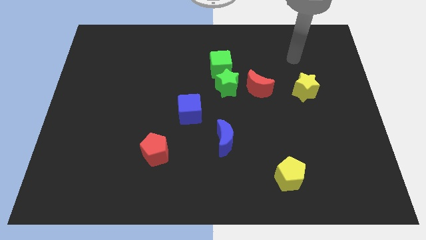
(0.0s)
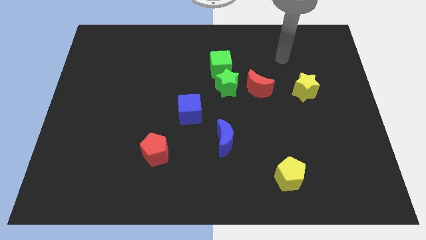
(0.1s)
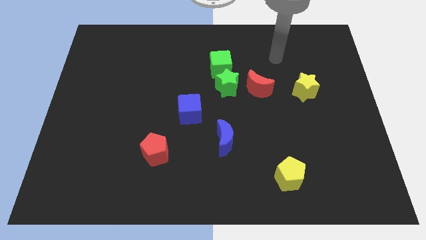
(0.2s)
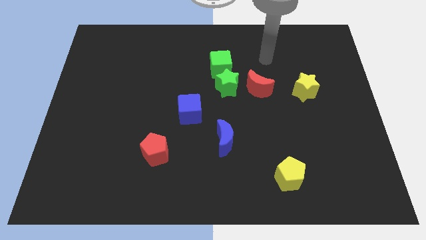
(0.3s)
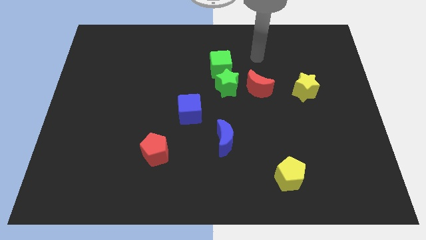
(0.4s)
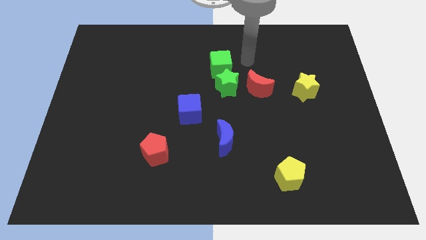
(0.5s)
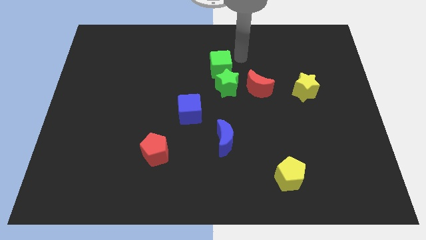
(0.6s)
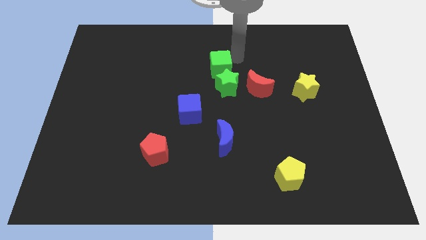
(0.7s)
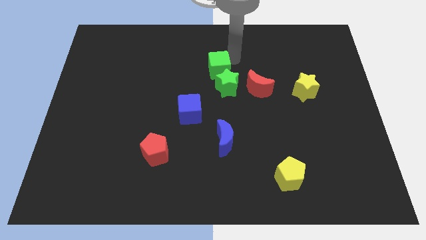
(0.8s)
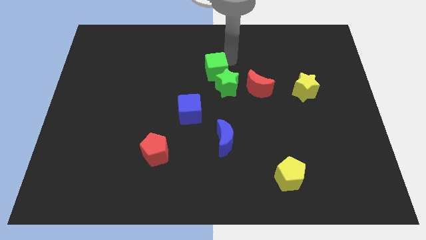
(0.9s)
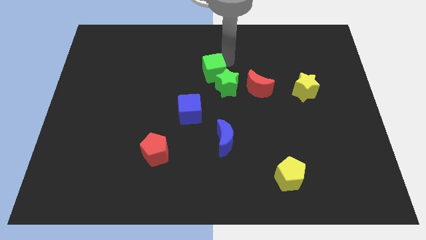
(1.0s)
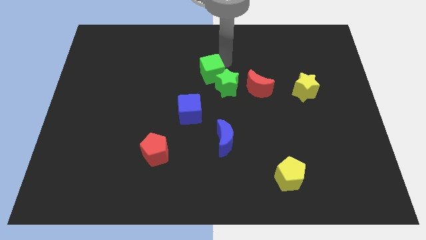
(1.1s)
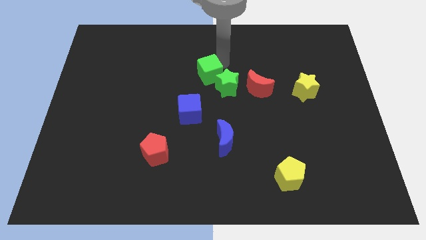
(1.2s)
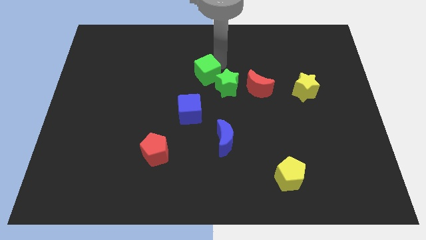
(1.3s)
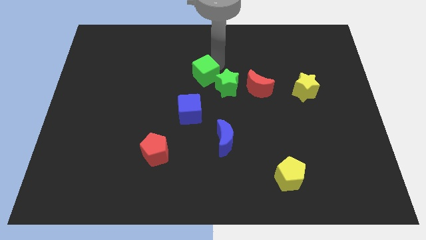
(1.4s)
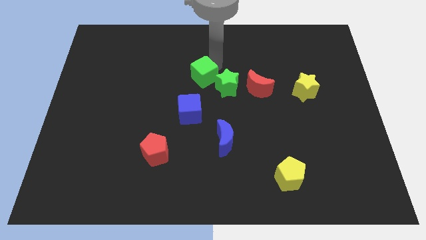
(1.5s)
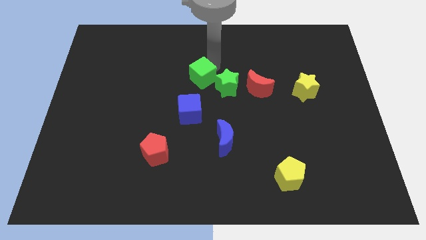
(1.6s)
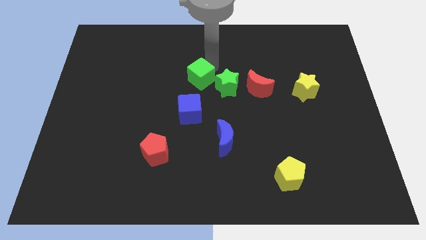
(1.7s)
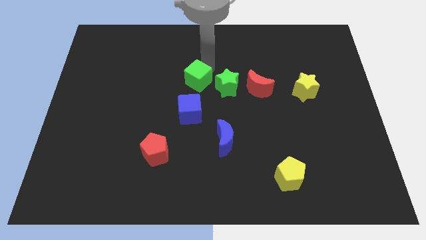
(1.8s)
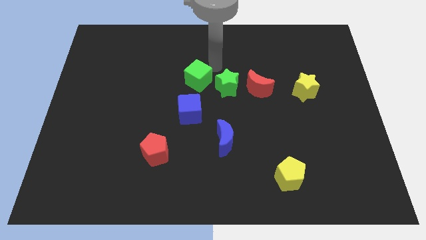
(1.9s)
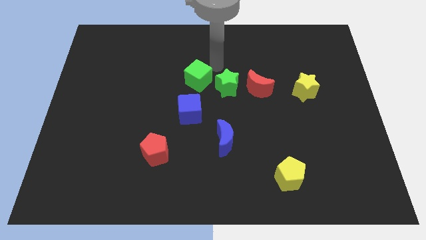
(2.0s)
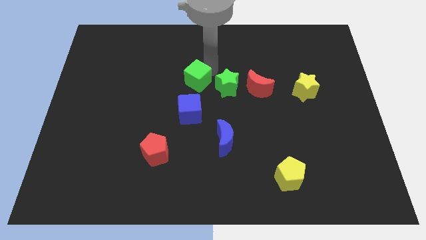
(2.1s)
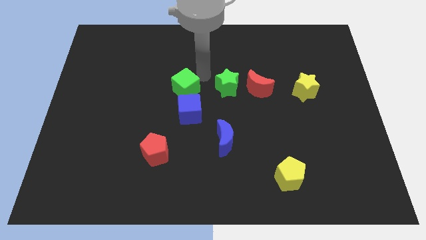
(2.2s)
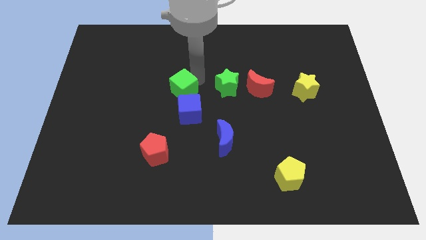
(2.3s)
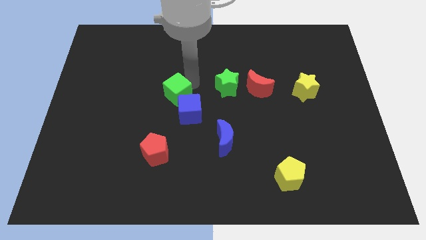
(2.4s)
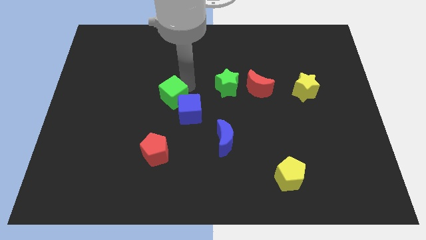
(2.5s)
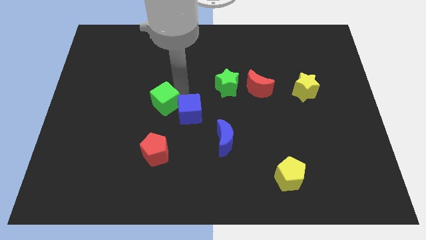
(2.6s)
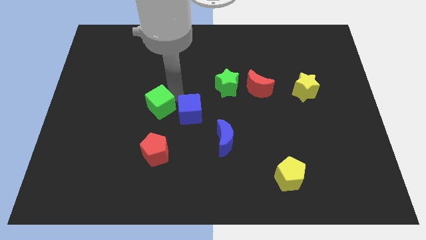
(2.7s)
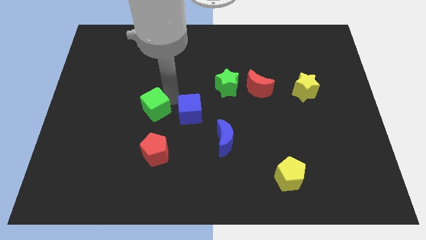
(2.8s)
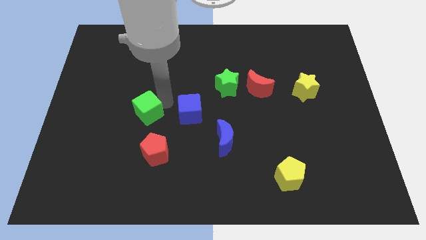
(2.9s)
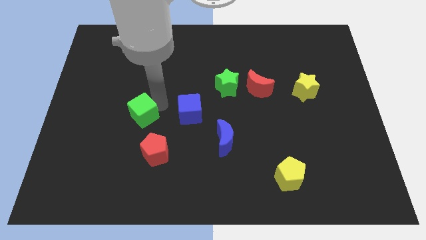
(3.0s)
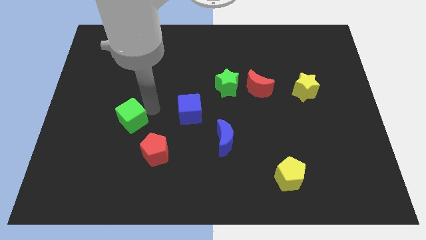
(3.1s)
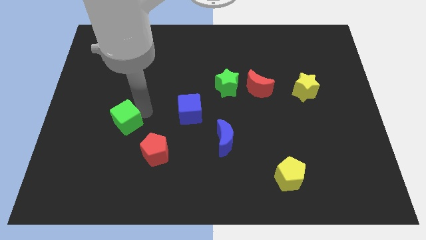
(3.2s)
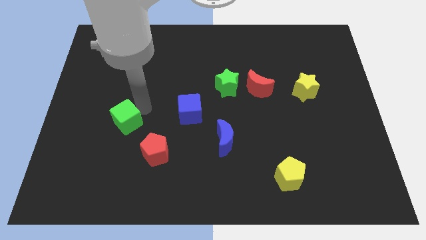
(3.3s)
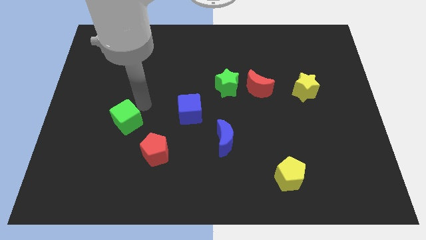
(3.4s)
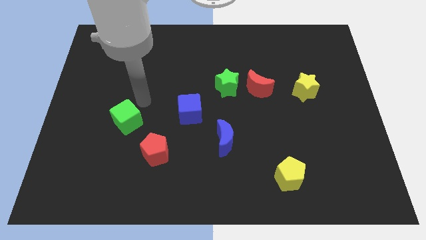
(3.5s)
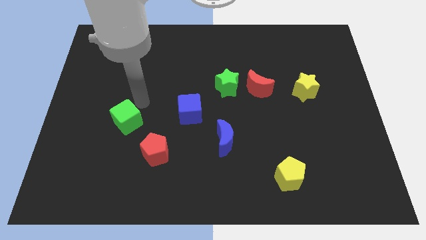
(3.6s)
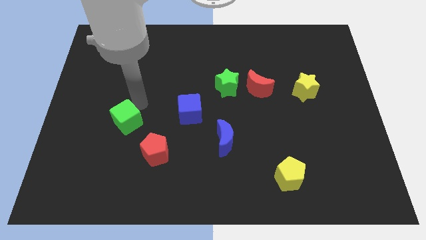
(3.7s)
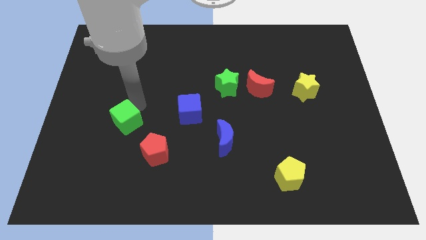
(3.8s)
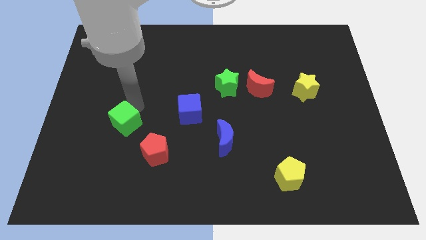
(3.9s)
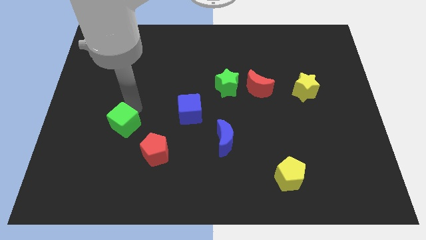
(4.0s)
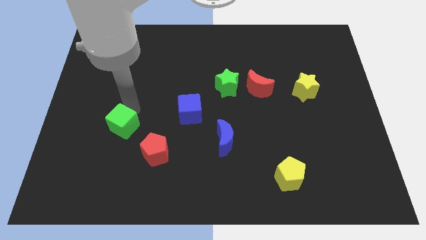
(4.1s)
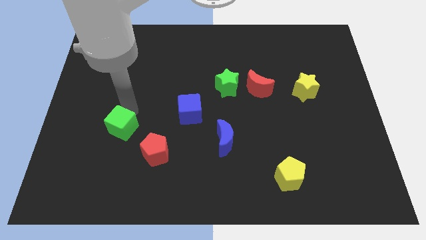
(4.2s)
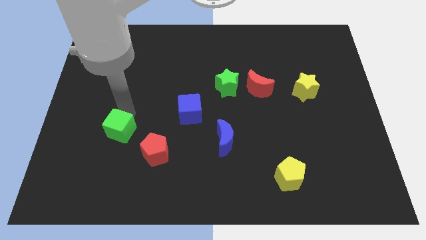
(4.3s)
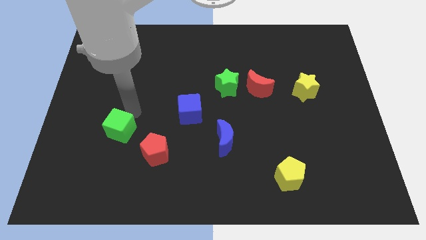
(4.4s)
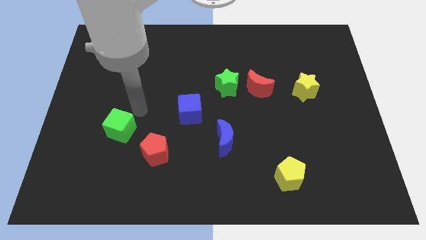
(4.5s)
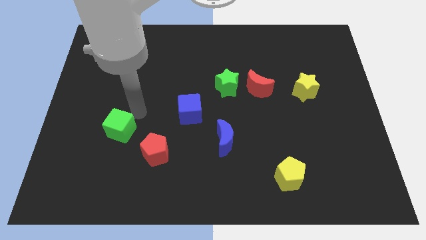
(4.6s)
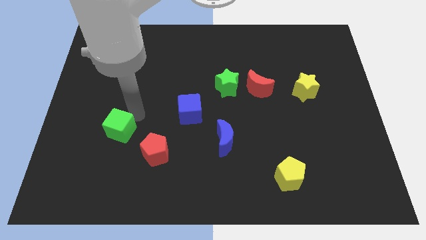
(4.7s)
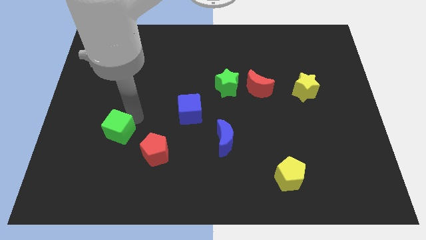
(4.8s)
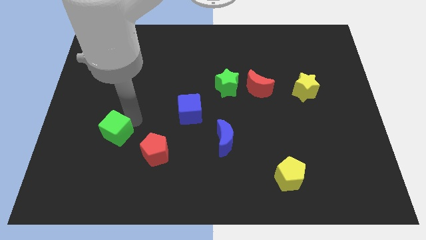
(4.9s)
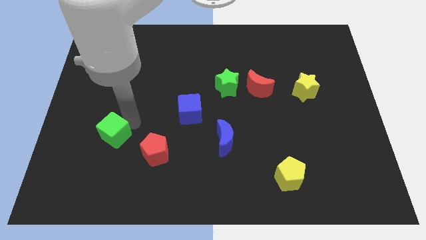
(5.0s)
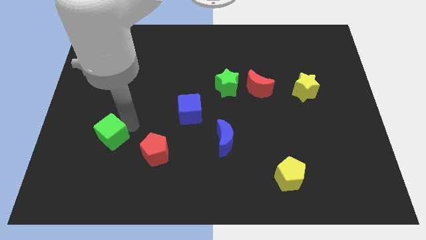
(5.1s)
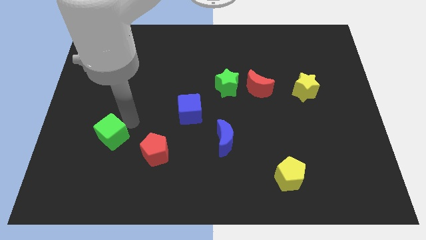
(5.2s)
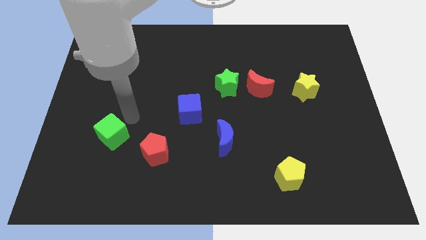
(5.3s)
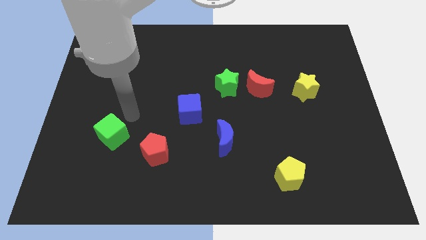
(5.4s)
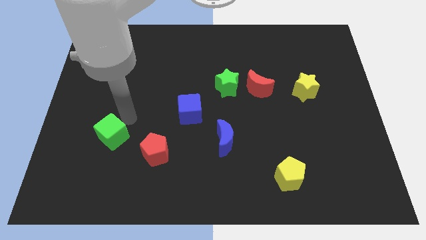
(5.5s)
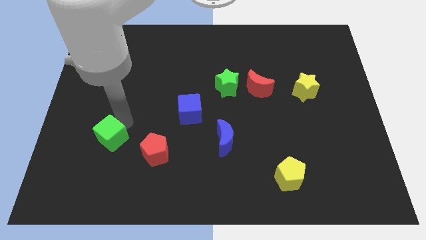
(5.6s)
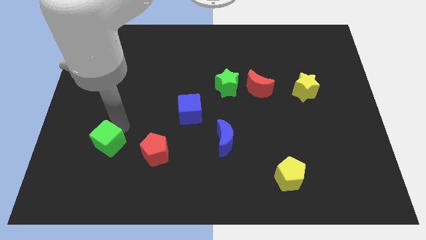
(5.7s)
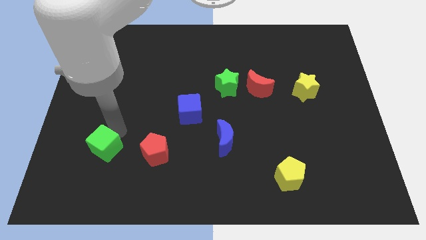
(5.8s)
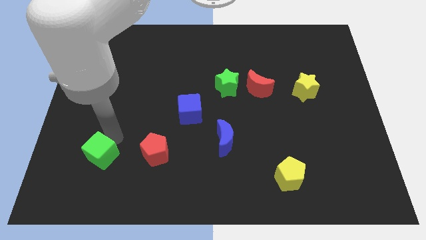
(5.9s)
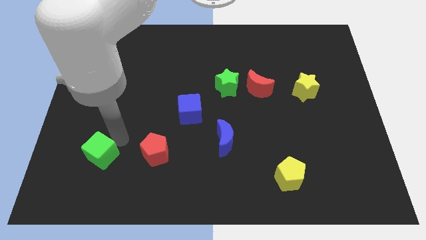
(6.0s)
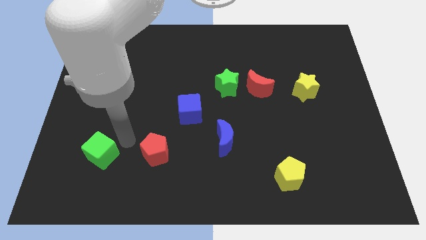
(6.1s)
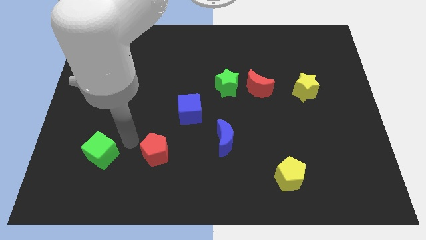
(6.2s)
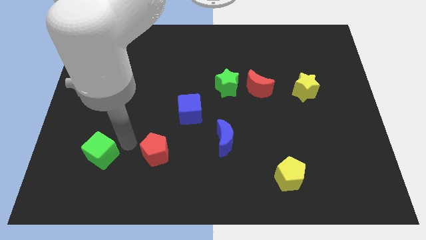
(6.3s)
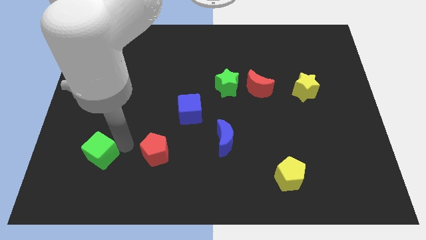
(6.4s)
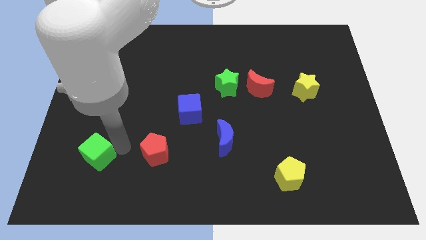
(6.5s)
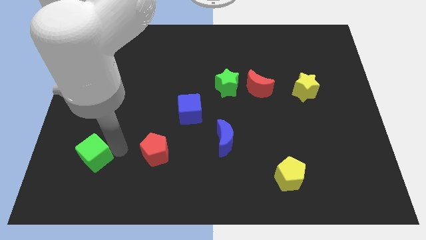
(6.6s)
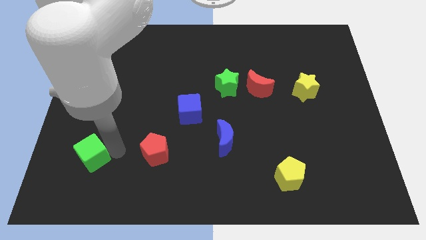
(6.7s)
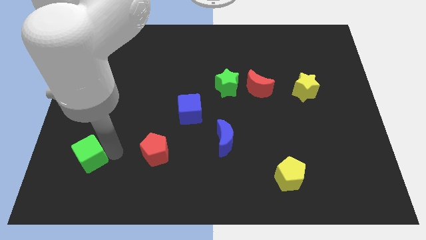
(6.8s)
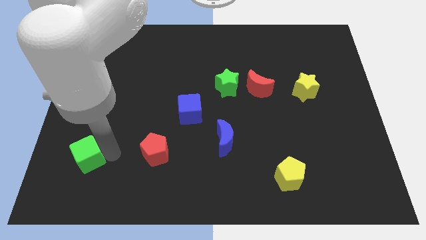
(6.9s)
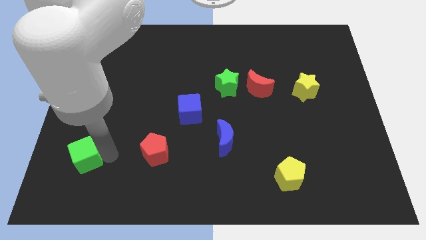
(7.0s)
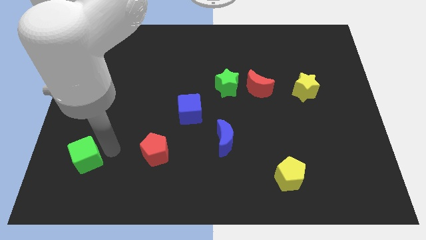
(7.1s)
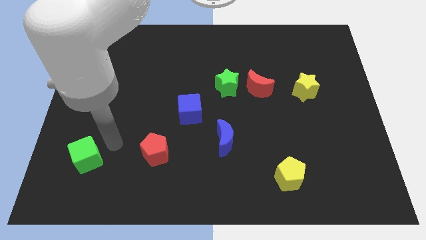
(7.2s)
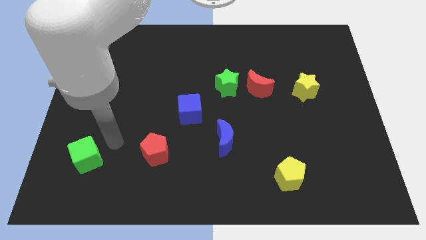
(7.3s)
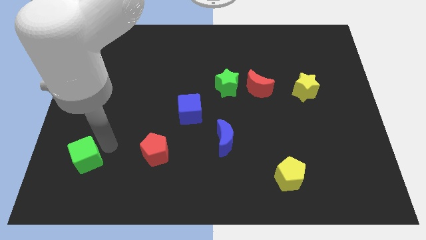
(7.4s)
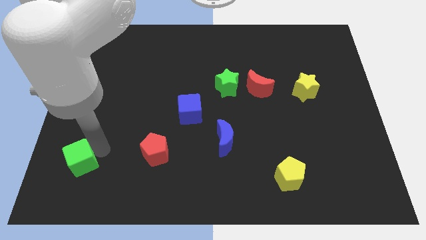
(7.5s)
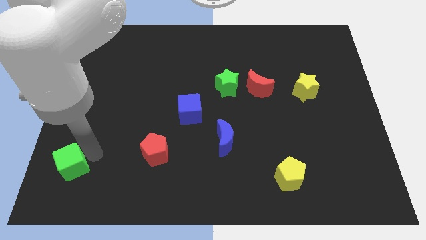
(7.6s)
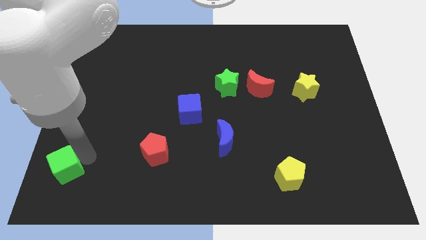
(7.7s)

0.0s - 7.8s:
move the green cube to the bottom left corner
